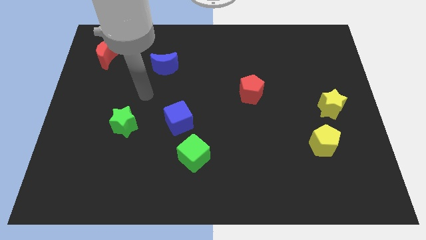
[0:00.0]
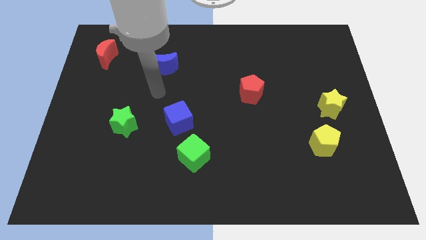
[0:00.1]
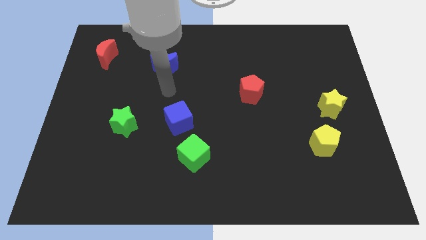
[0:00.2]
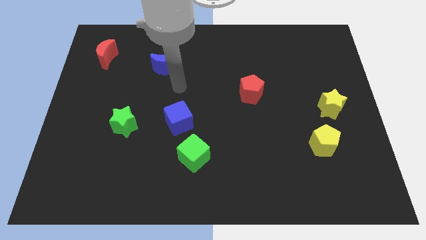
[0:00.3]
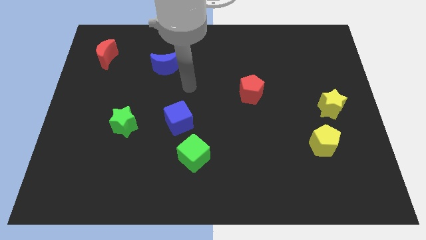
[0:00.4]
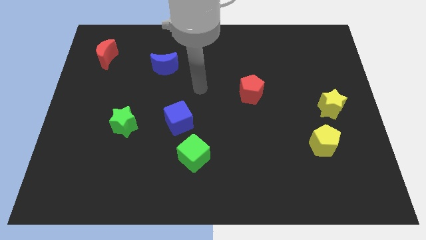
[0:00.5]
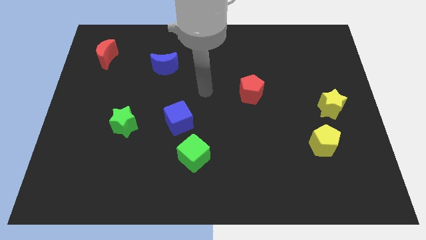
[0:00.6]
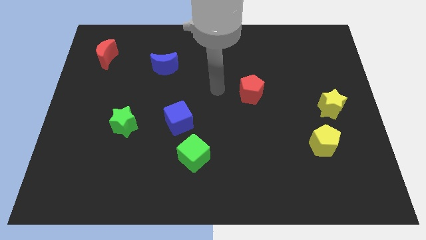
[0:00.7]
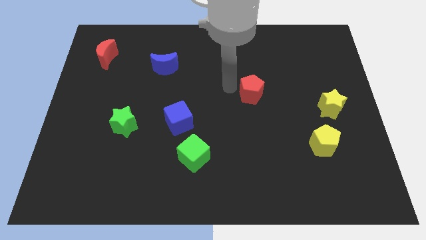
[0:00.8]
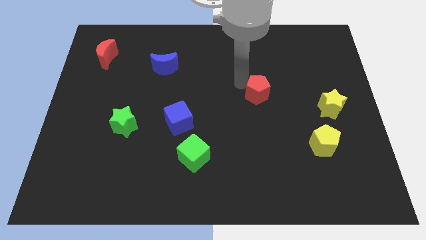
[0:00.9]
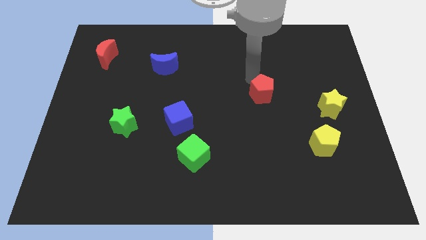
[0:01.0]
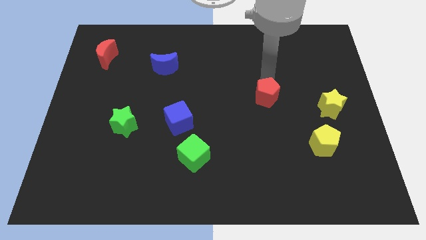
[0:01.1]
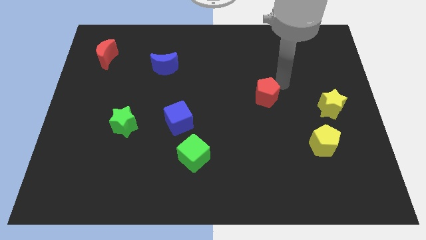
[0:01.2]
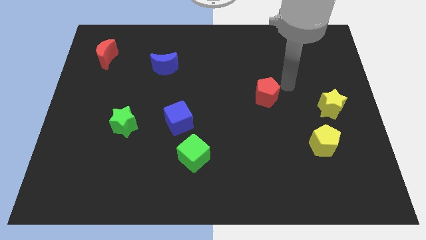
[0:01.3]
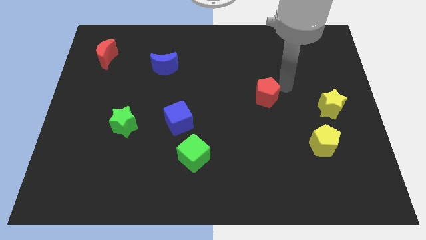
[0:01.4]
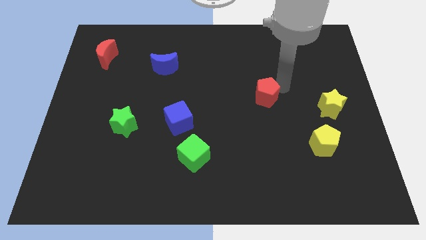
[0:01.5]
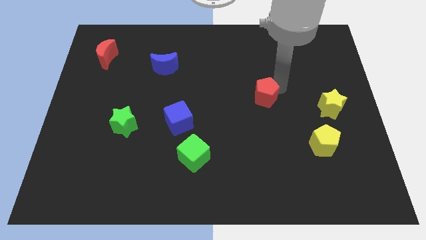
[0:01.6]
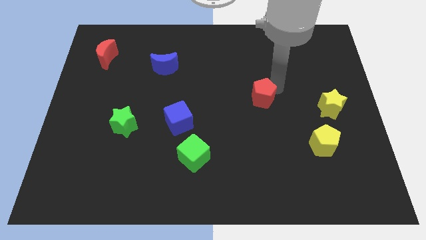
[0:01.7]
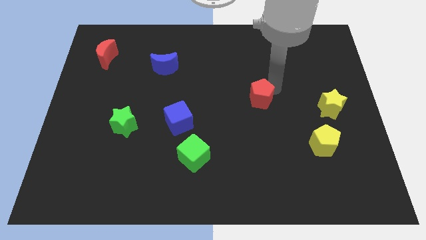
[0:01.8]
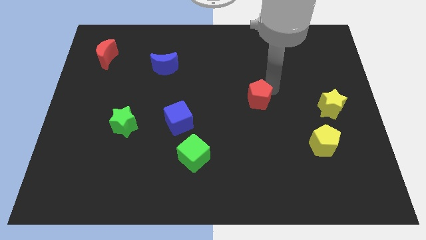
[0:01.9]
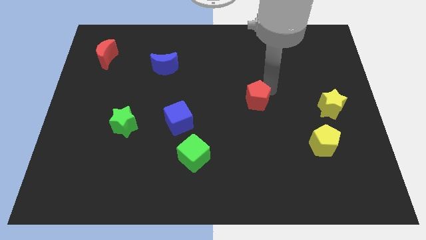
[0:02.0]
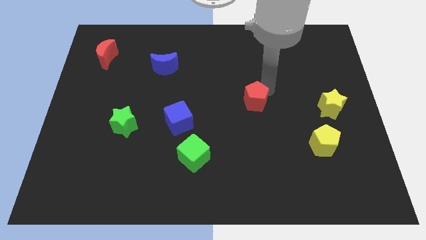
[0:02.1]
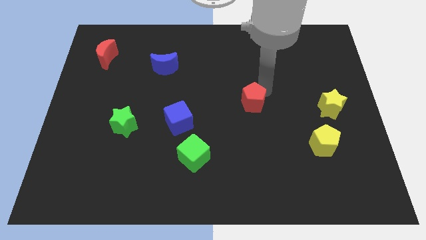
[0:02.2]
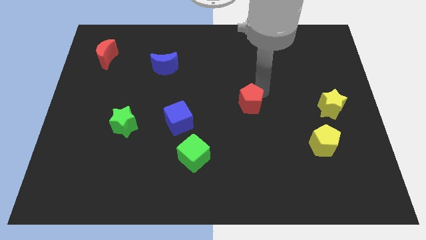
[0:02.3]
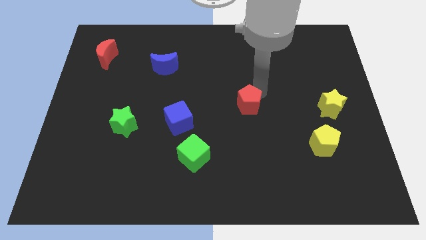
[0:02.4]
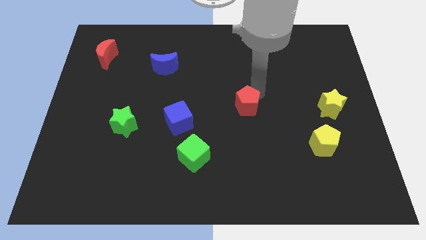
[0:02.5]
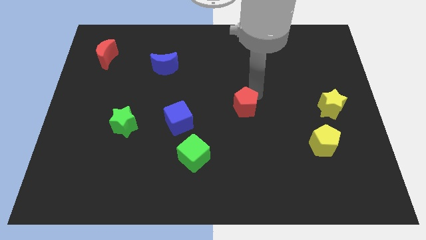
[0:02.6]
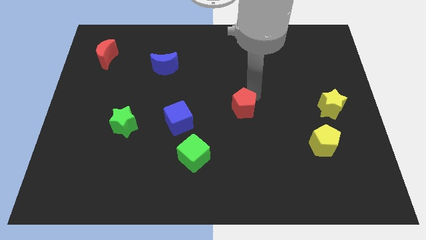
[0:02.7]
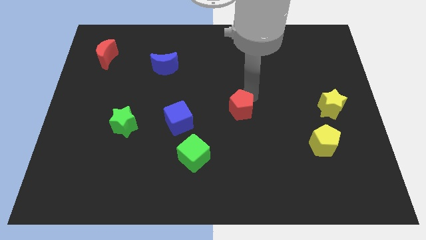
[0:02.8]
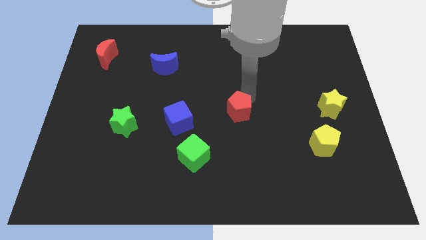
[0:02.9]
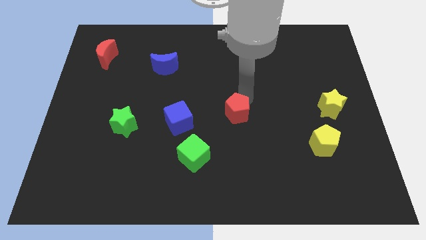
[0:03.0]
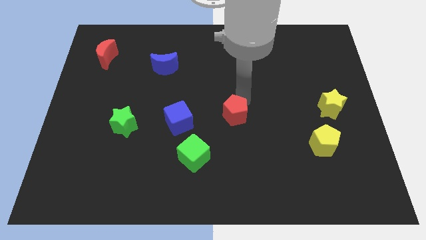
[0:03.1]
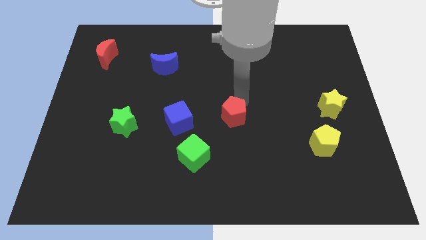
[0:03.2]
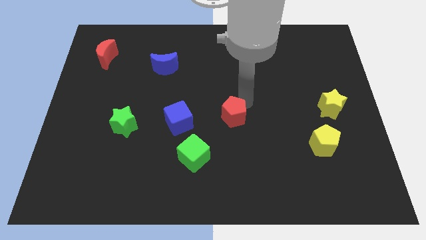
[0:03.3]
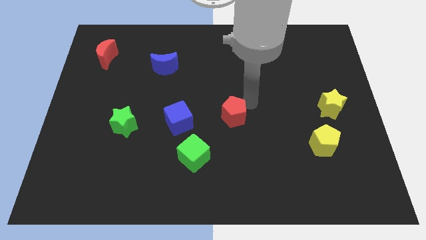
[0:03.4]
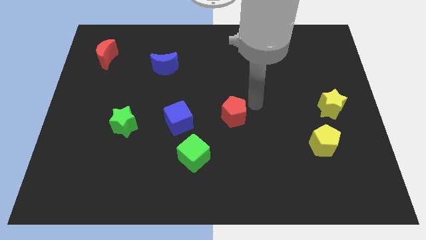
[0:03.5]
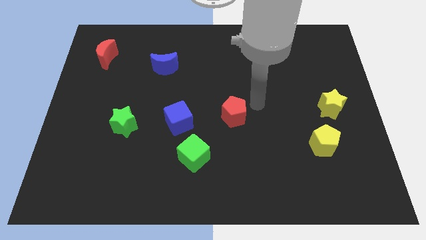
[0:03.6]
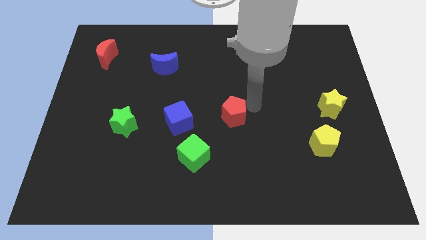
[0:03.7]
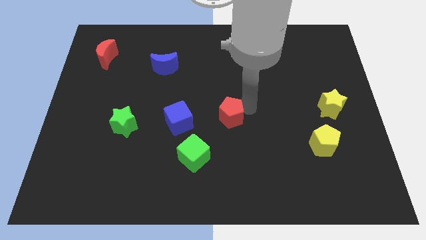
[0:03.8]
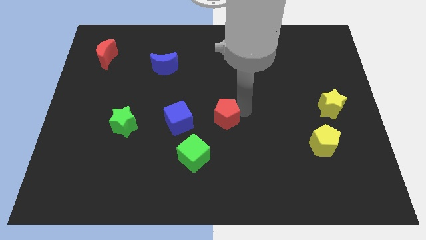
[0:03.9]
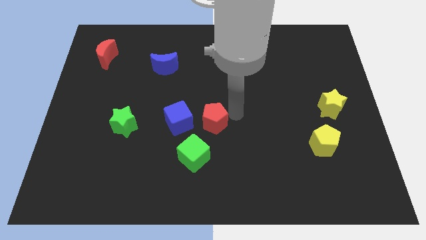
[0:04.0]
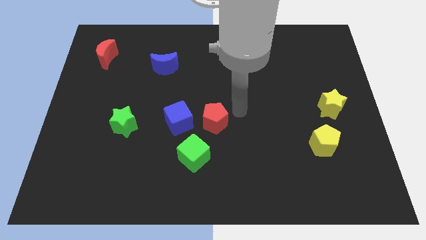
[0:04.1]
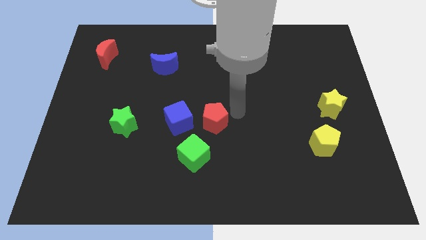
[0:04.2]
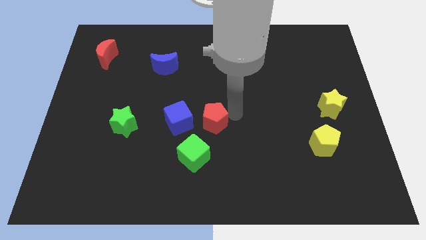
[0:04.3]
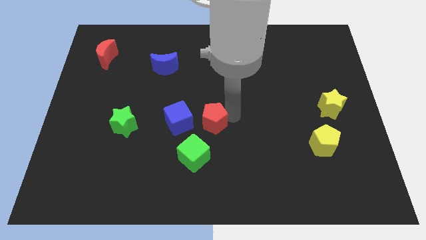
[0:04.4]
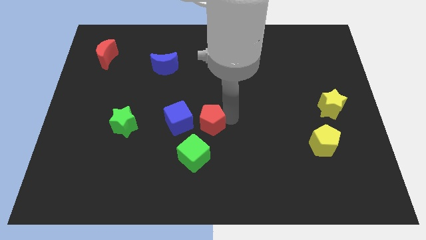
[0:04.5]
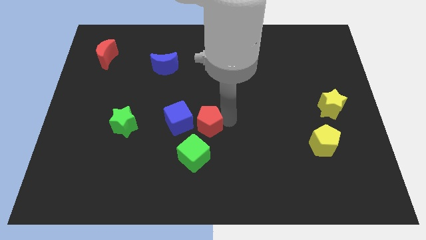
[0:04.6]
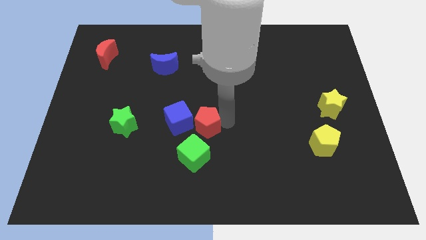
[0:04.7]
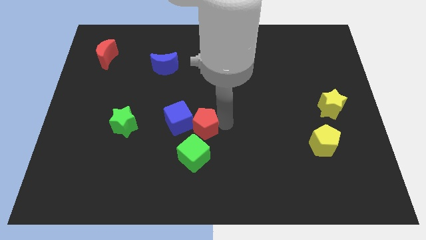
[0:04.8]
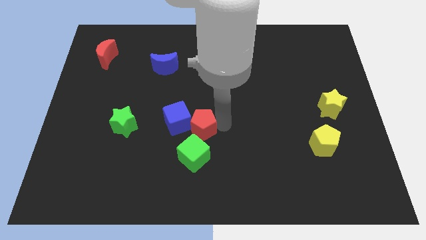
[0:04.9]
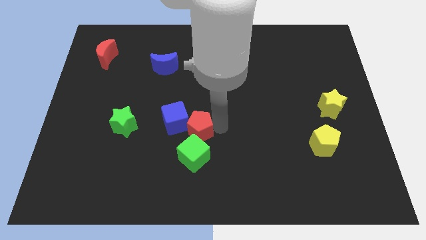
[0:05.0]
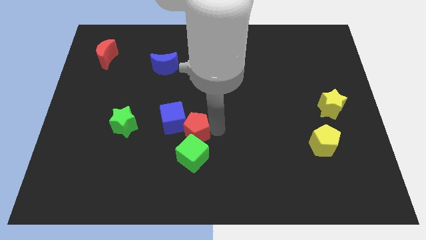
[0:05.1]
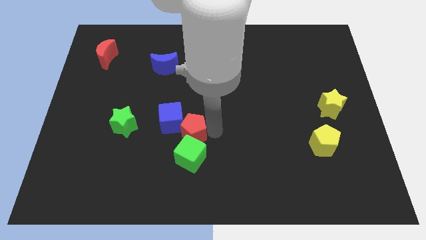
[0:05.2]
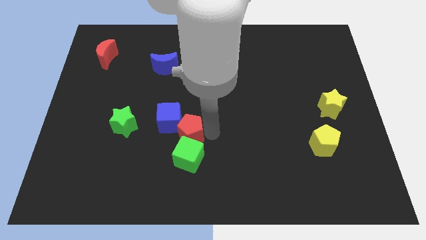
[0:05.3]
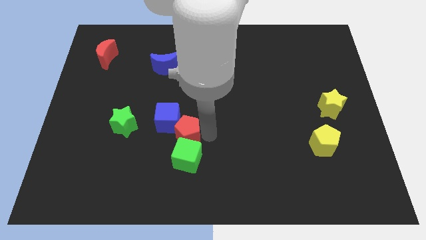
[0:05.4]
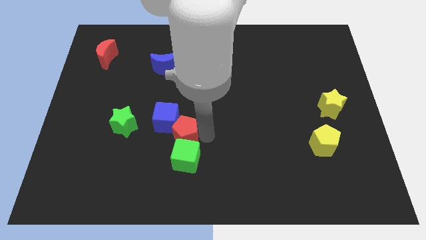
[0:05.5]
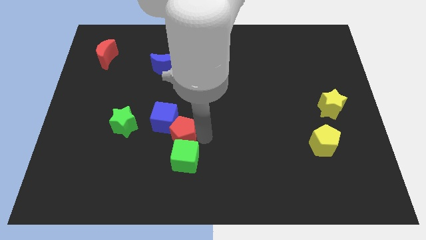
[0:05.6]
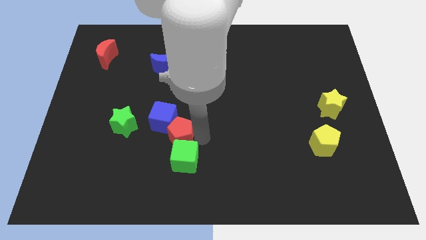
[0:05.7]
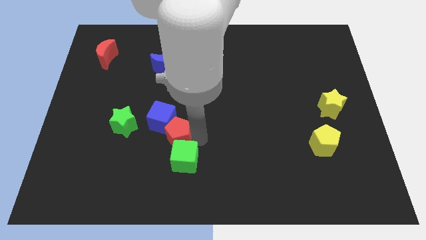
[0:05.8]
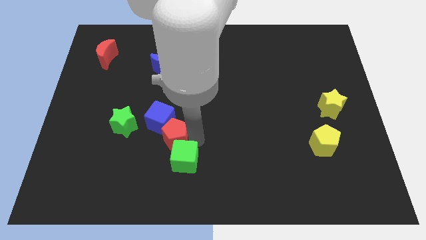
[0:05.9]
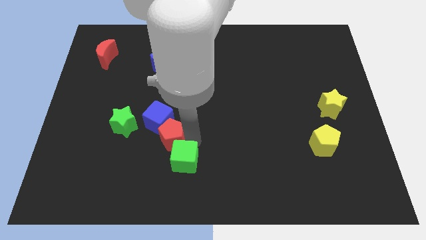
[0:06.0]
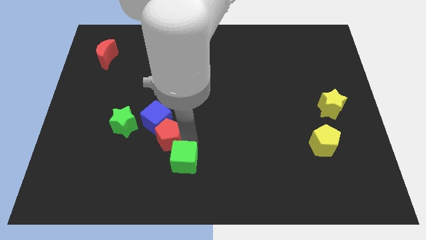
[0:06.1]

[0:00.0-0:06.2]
slide the red pentagon diagonally down and to the right of the green star
